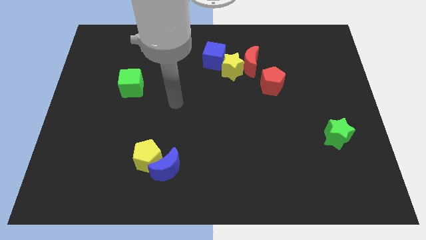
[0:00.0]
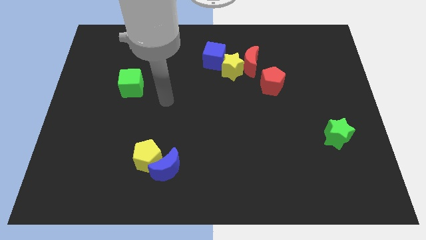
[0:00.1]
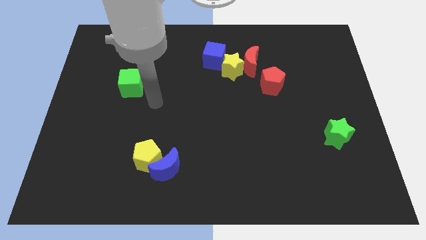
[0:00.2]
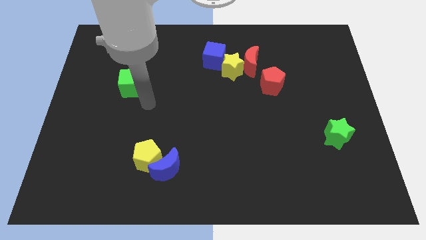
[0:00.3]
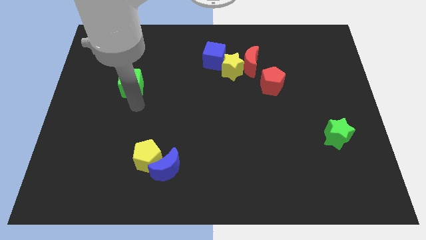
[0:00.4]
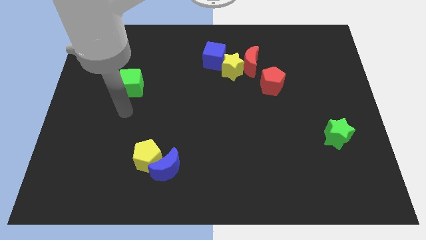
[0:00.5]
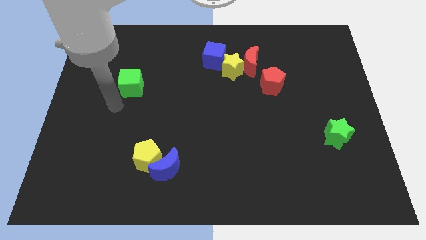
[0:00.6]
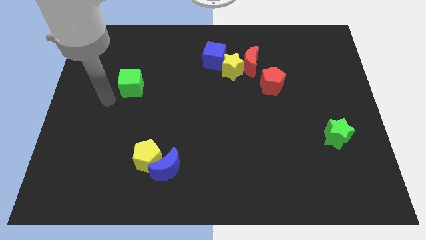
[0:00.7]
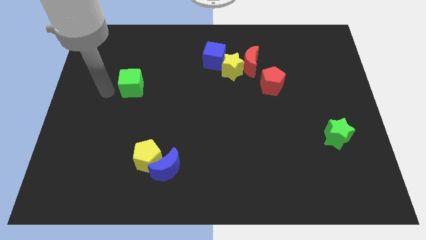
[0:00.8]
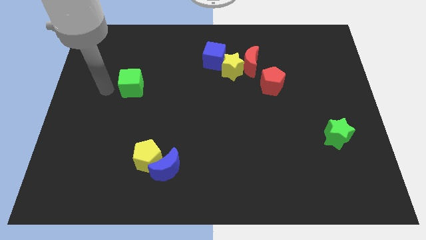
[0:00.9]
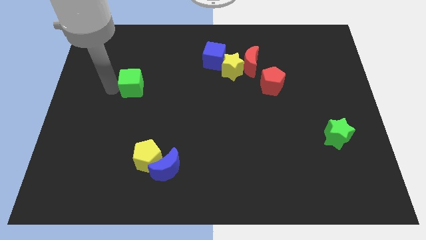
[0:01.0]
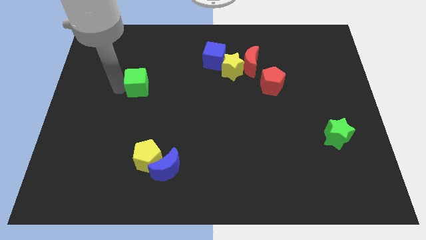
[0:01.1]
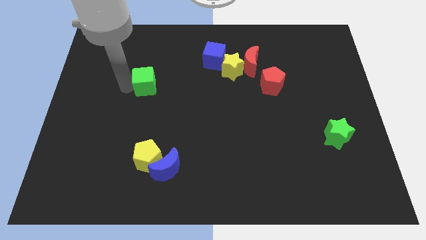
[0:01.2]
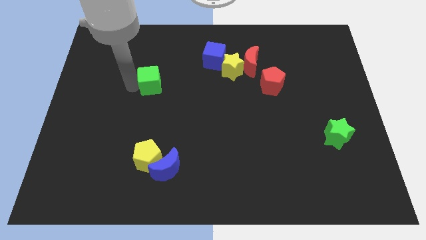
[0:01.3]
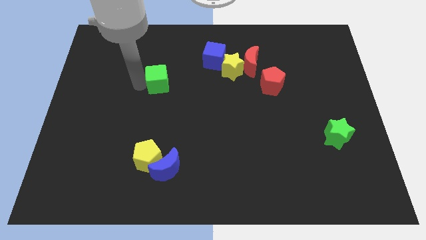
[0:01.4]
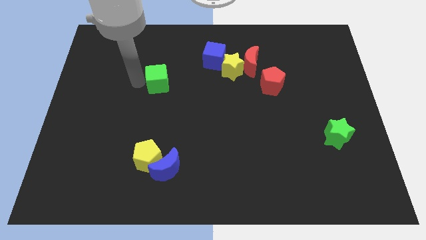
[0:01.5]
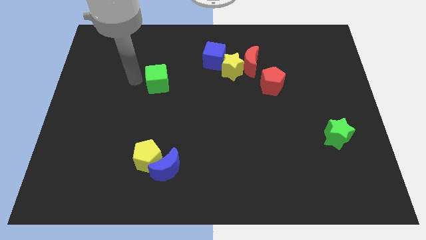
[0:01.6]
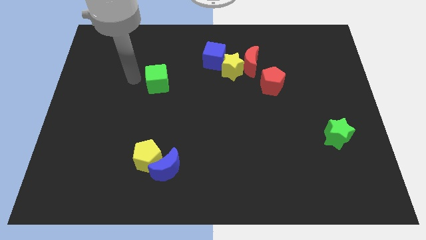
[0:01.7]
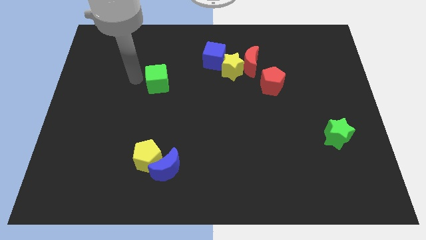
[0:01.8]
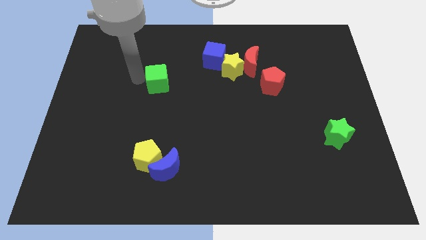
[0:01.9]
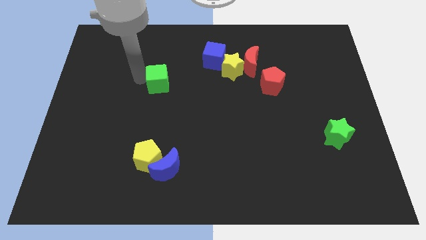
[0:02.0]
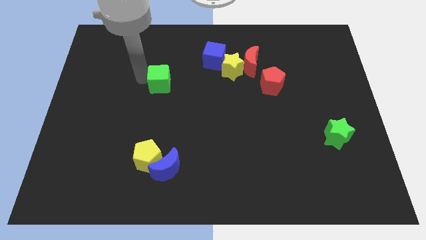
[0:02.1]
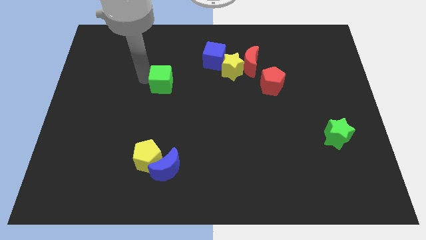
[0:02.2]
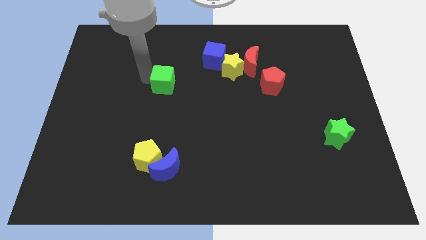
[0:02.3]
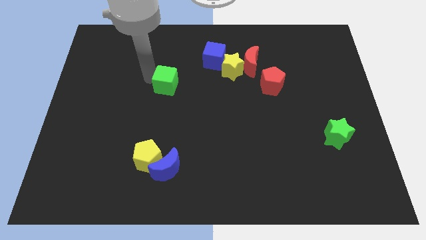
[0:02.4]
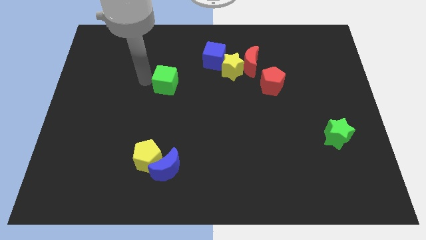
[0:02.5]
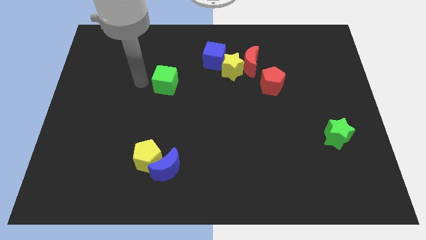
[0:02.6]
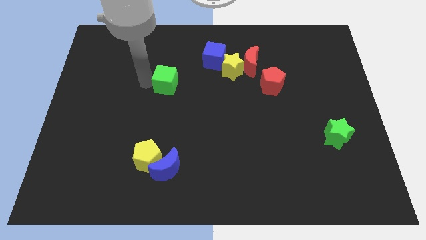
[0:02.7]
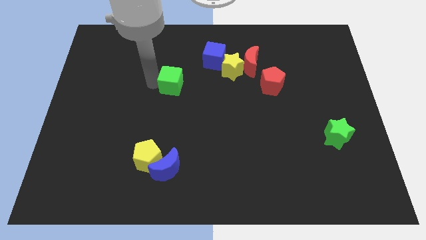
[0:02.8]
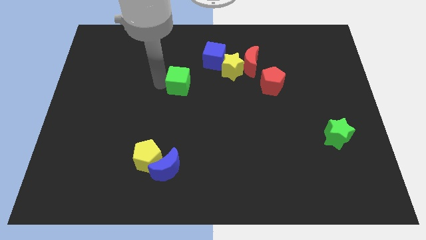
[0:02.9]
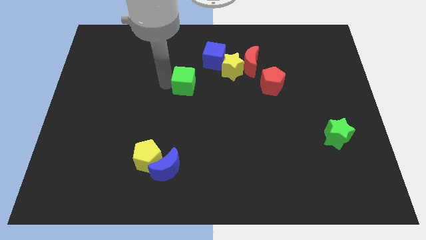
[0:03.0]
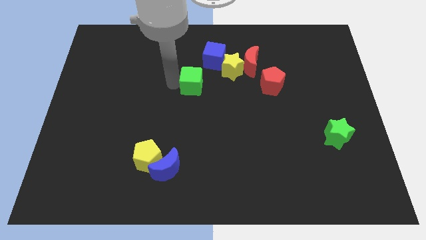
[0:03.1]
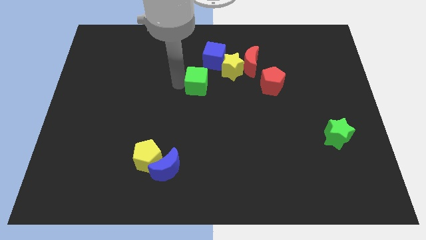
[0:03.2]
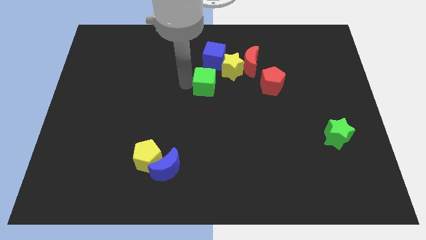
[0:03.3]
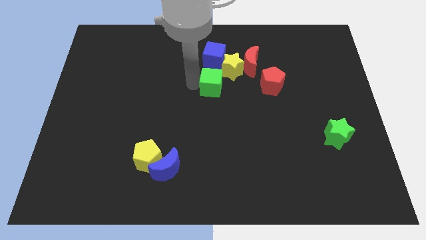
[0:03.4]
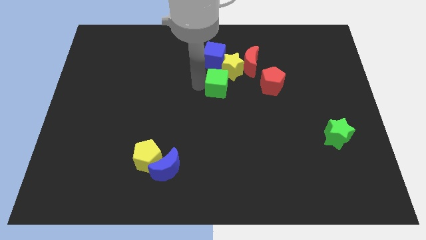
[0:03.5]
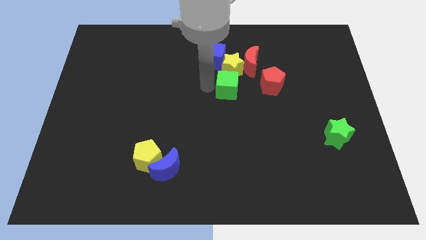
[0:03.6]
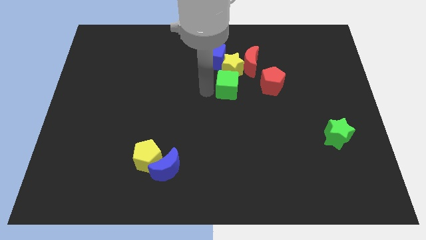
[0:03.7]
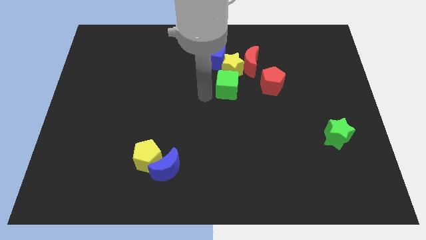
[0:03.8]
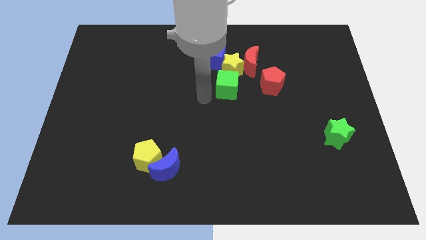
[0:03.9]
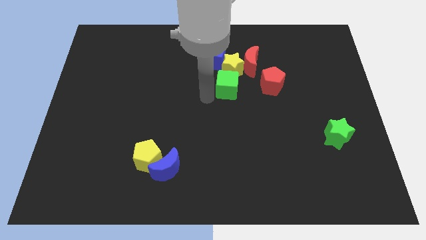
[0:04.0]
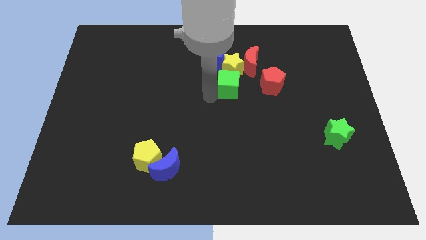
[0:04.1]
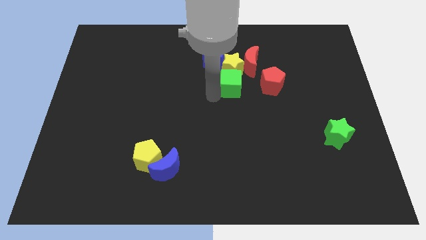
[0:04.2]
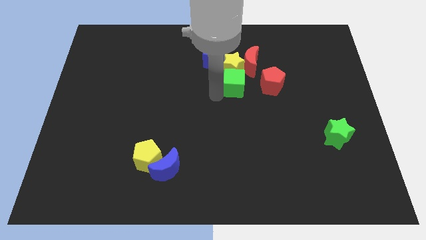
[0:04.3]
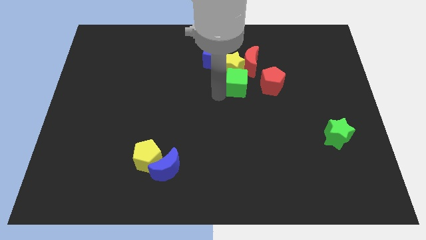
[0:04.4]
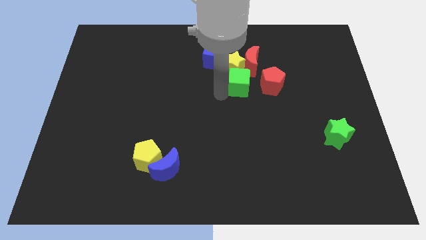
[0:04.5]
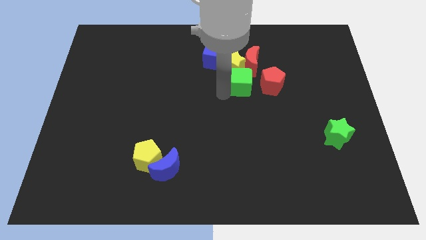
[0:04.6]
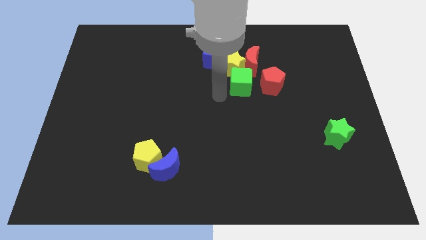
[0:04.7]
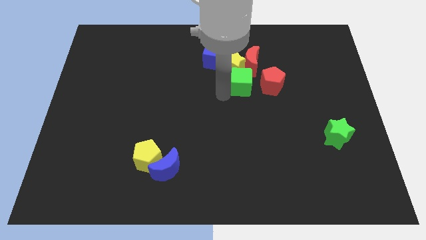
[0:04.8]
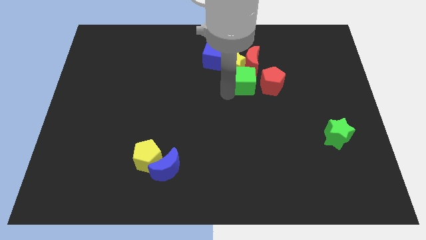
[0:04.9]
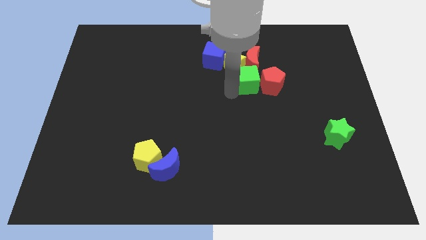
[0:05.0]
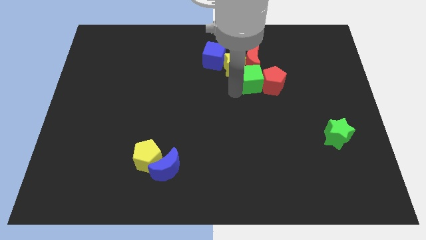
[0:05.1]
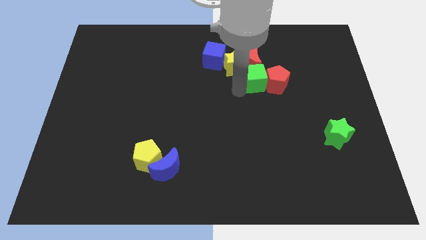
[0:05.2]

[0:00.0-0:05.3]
slide the green cube to the right of the yellow star

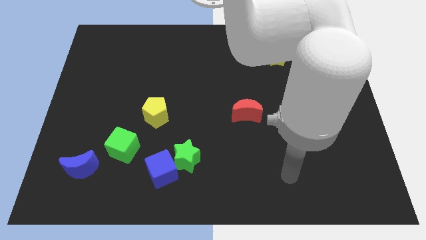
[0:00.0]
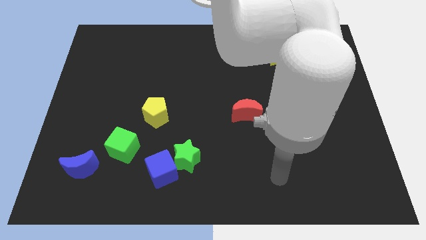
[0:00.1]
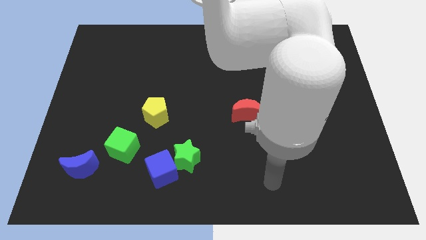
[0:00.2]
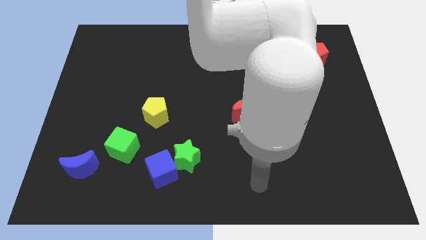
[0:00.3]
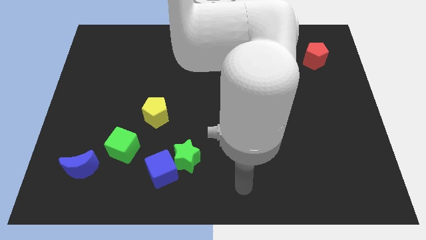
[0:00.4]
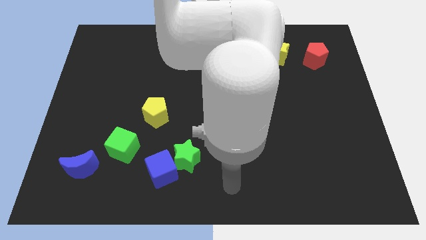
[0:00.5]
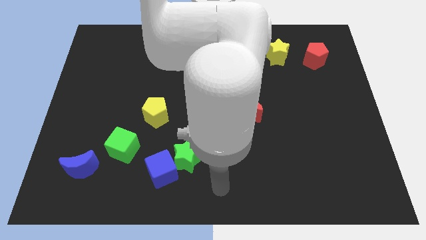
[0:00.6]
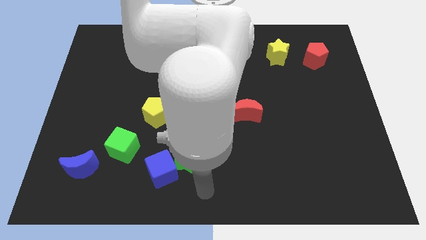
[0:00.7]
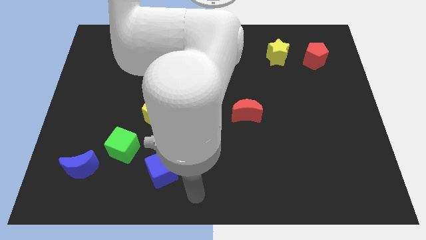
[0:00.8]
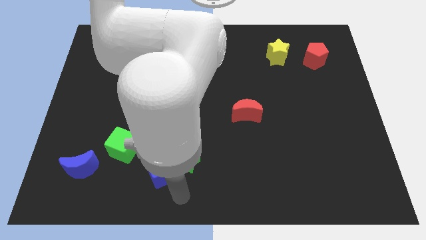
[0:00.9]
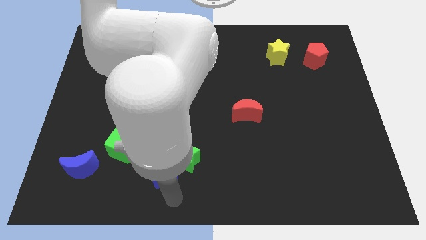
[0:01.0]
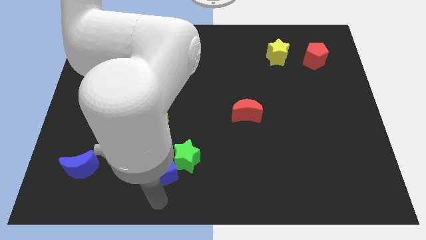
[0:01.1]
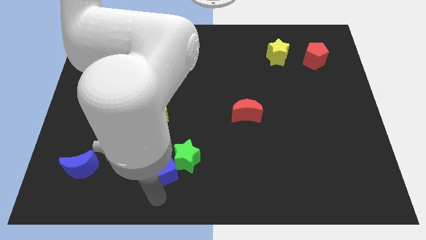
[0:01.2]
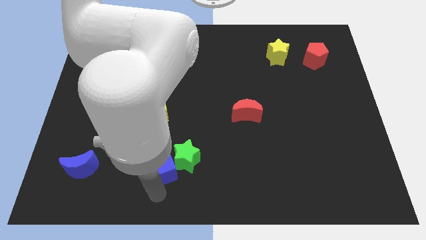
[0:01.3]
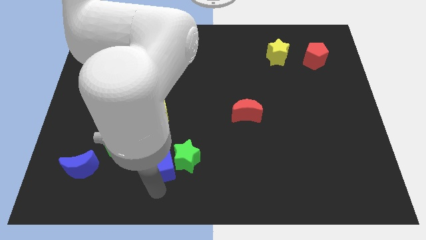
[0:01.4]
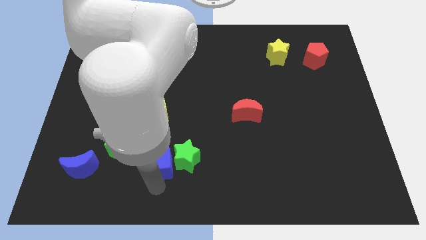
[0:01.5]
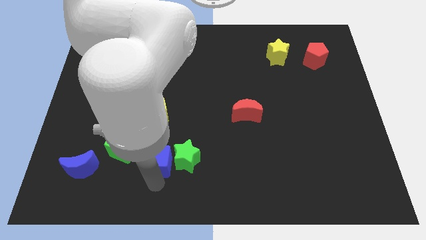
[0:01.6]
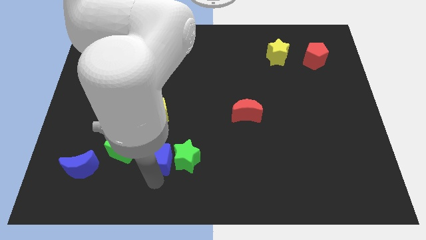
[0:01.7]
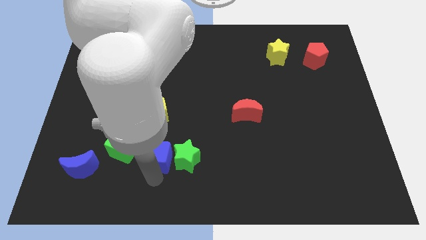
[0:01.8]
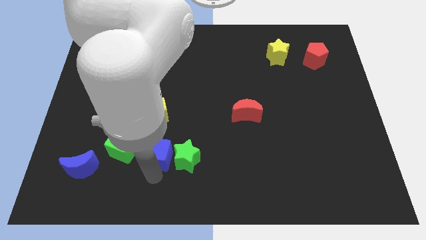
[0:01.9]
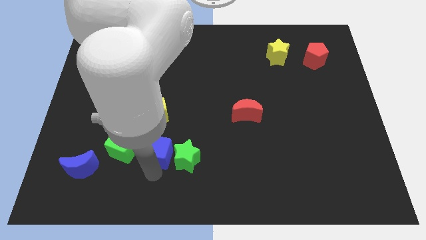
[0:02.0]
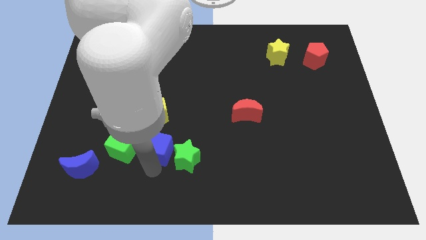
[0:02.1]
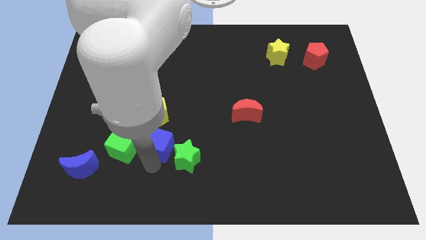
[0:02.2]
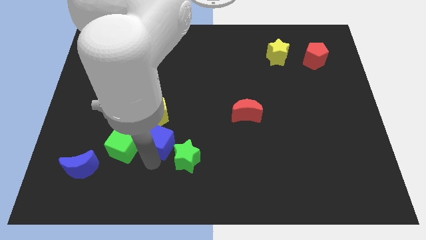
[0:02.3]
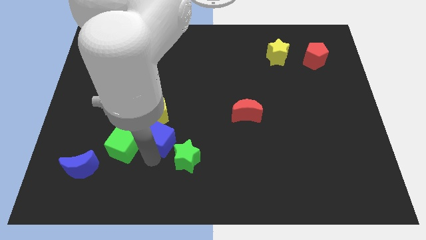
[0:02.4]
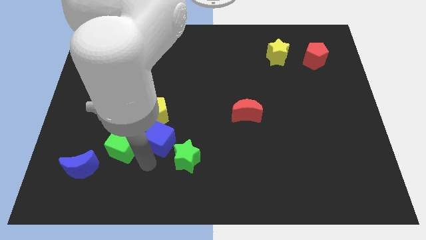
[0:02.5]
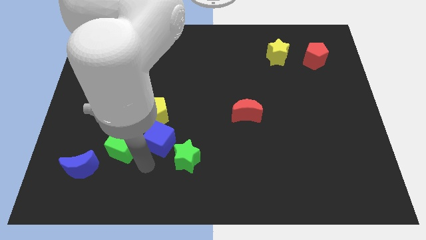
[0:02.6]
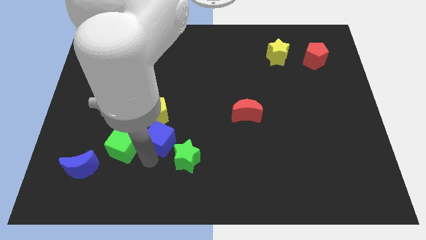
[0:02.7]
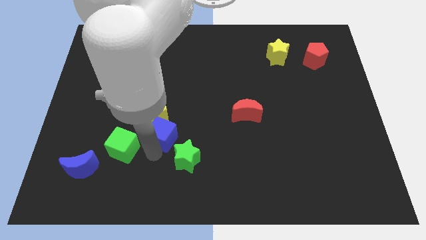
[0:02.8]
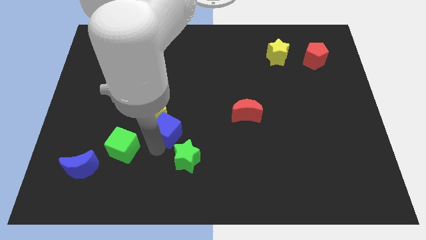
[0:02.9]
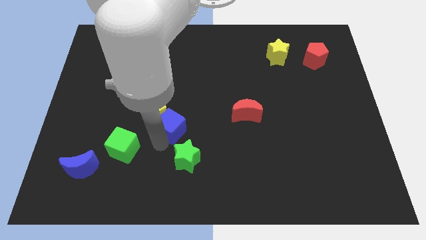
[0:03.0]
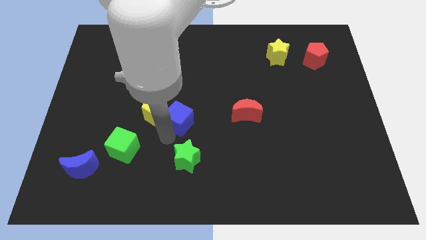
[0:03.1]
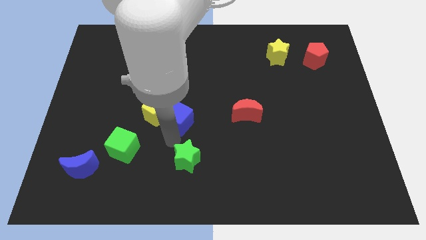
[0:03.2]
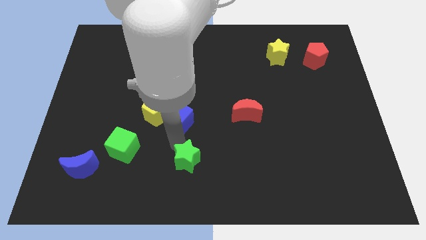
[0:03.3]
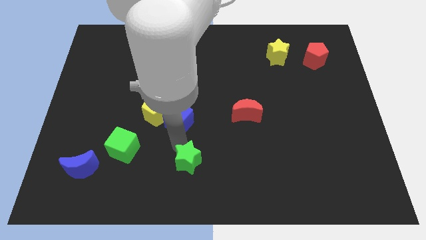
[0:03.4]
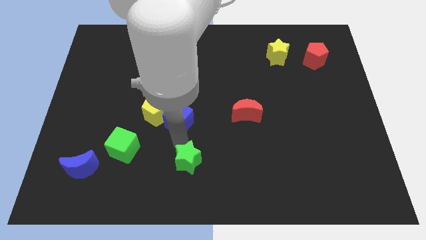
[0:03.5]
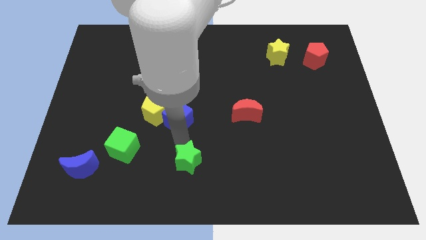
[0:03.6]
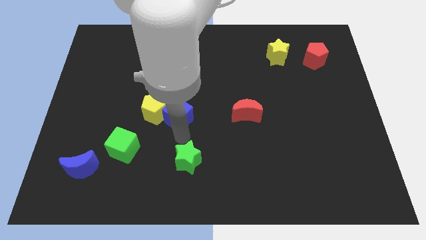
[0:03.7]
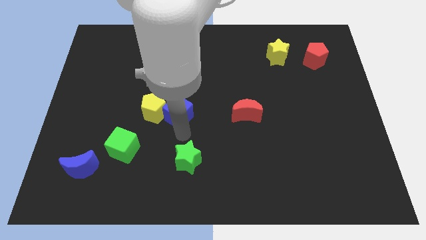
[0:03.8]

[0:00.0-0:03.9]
slide the blue cube to the top right side of the yellow pentagon
